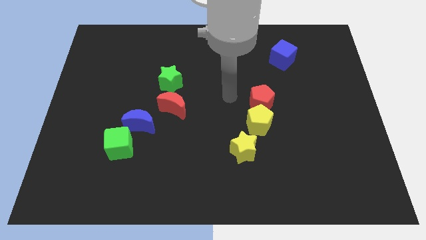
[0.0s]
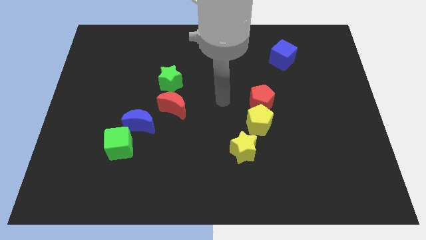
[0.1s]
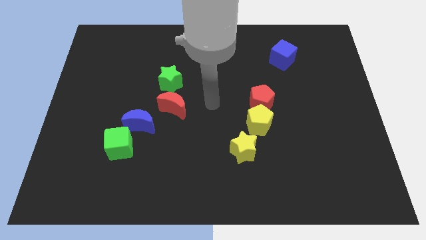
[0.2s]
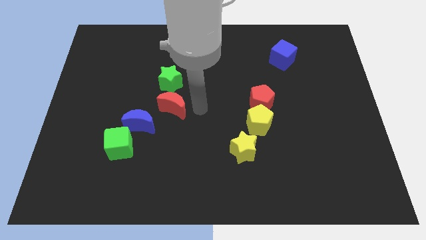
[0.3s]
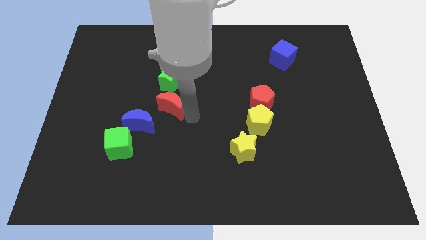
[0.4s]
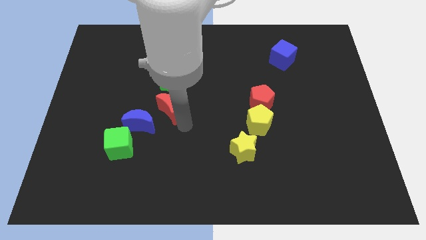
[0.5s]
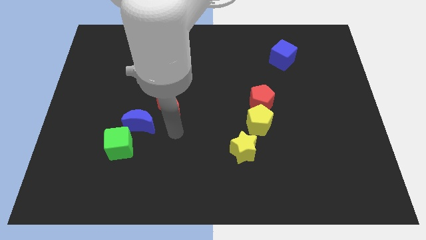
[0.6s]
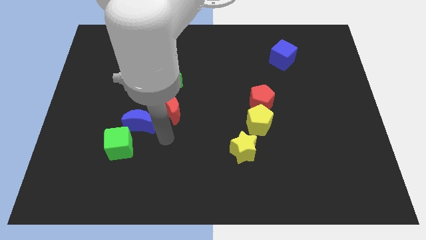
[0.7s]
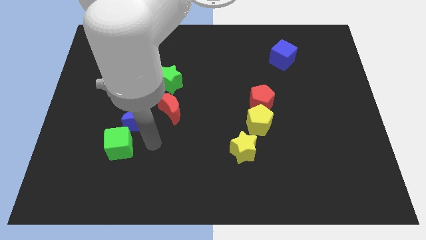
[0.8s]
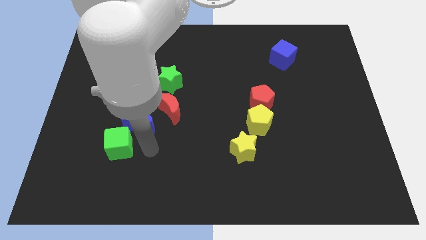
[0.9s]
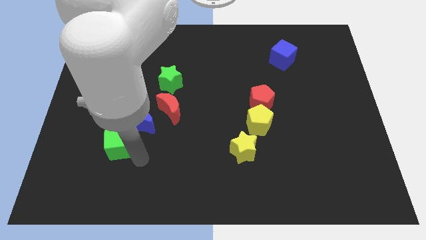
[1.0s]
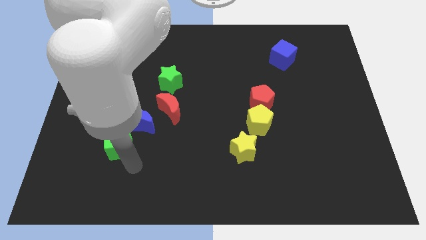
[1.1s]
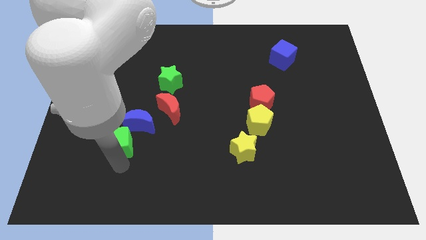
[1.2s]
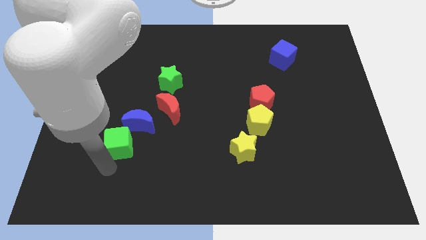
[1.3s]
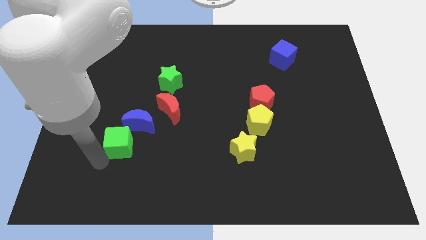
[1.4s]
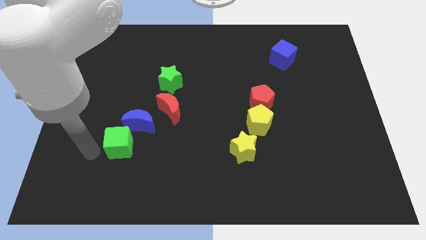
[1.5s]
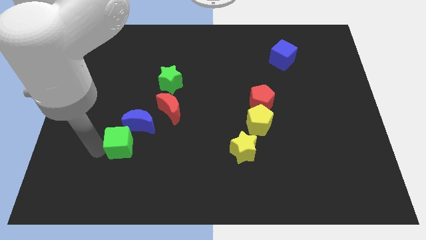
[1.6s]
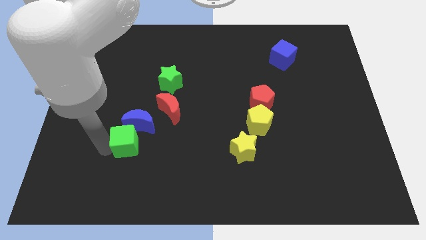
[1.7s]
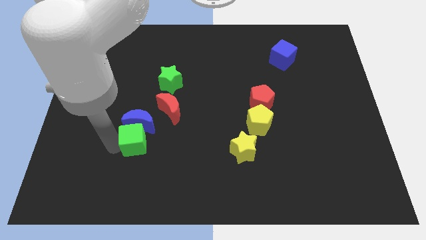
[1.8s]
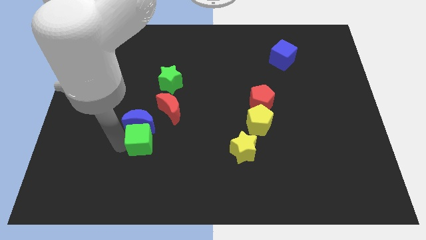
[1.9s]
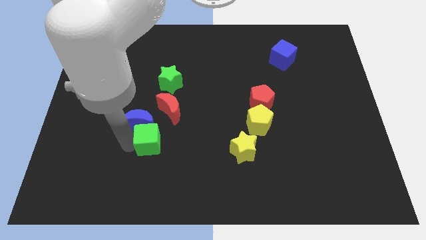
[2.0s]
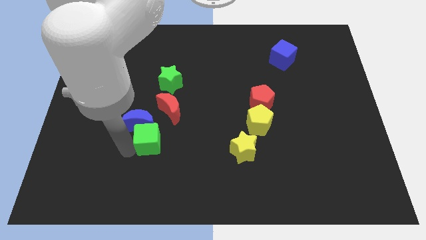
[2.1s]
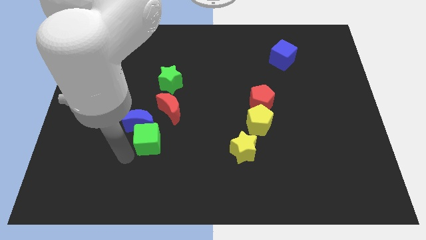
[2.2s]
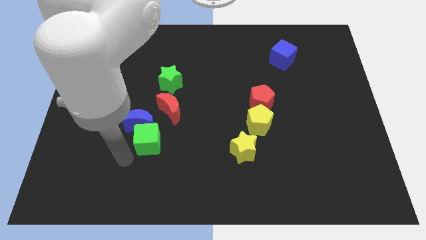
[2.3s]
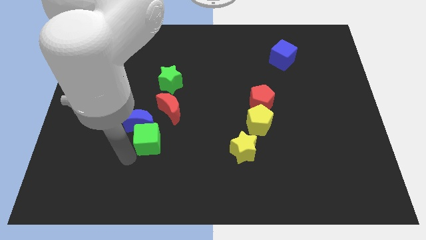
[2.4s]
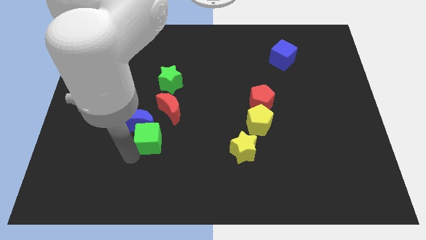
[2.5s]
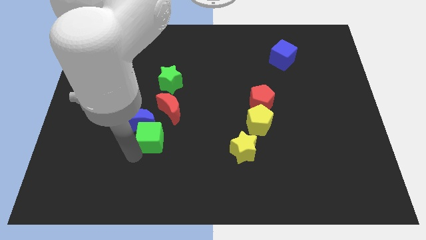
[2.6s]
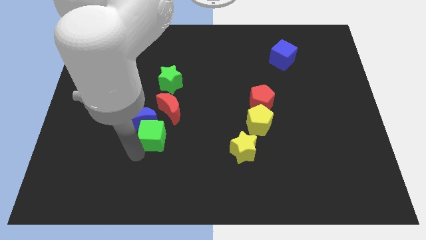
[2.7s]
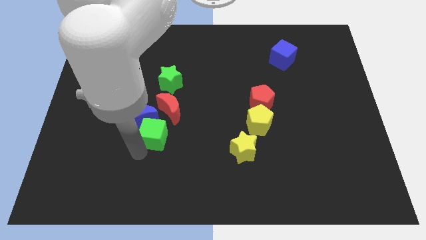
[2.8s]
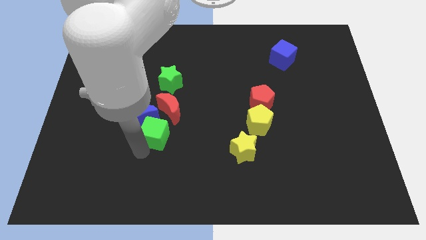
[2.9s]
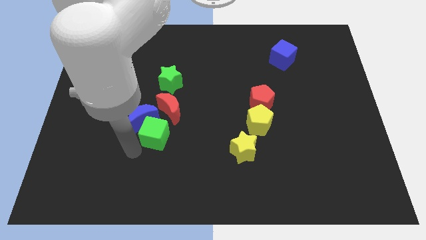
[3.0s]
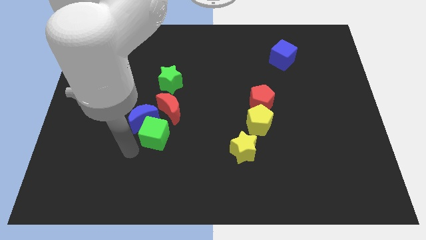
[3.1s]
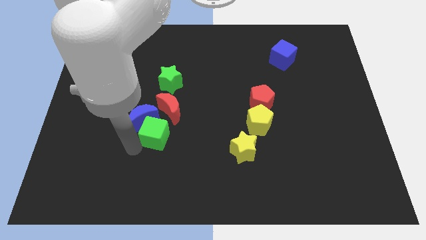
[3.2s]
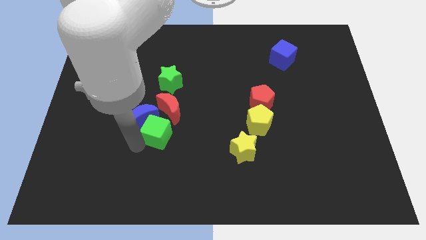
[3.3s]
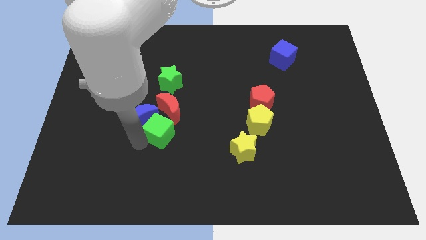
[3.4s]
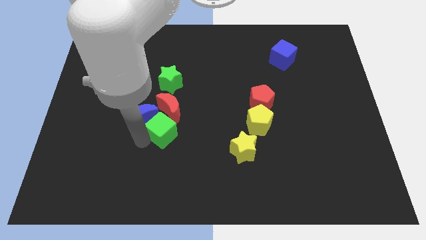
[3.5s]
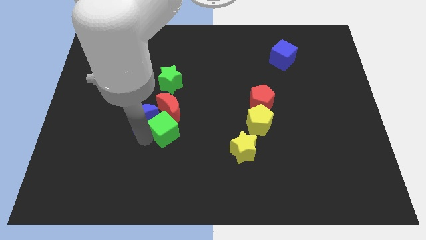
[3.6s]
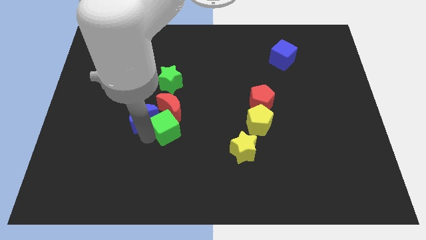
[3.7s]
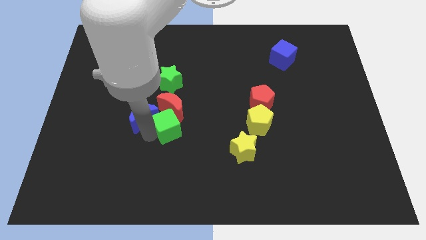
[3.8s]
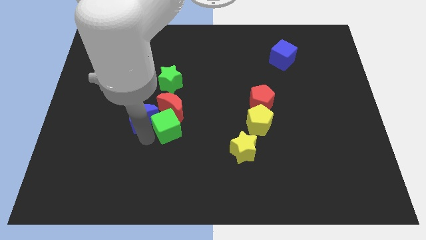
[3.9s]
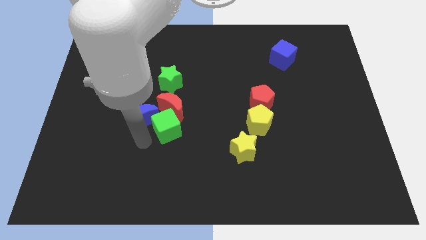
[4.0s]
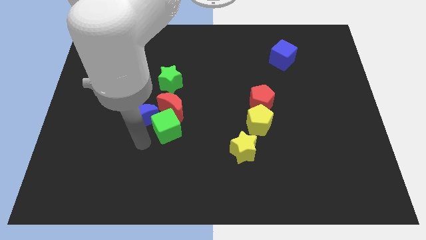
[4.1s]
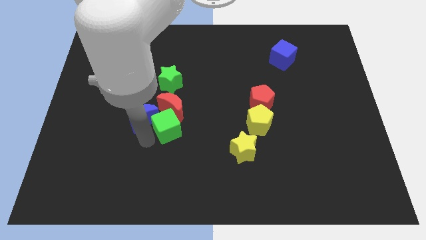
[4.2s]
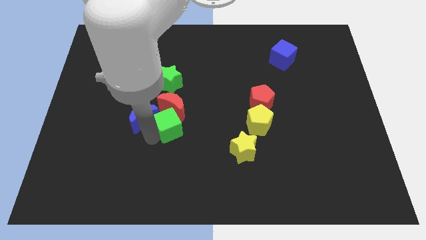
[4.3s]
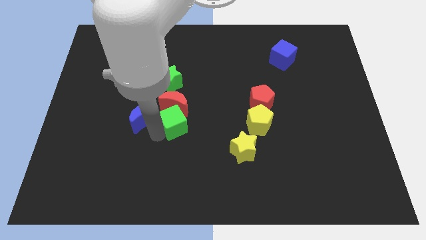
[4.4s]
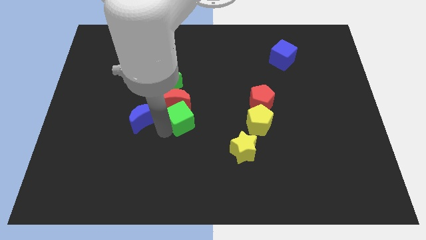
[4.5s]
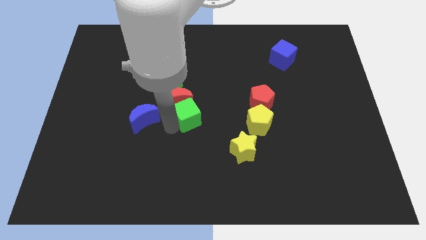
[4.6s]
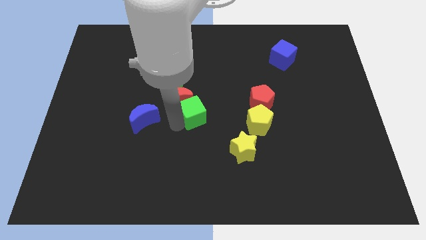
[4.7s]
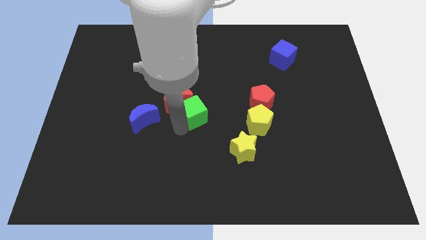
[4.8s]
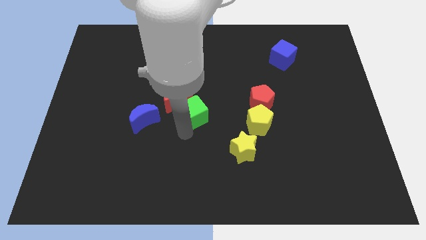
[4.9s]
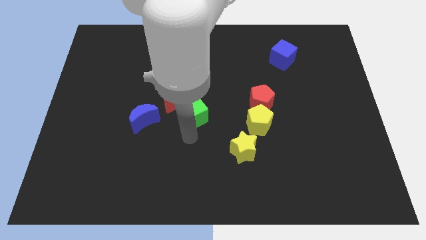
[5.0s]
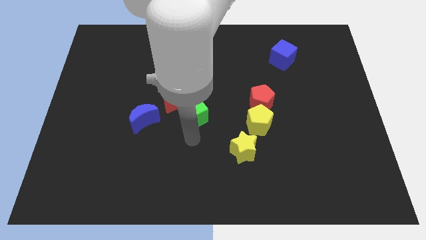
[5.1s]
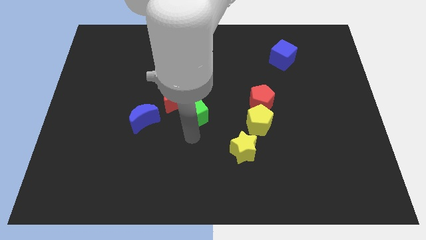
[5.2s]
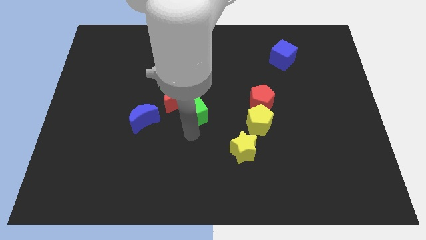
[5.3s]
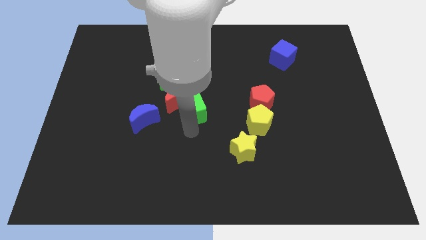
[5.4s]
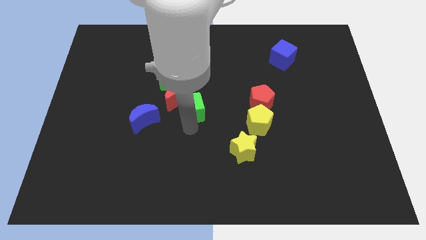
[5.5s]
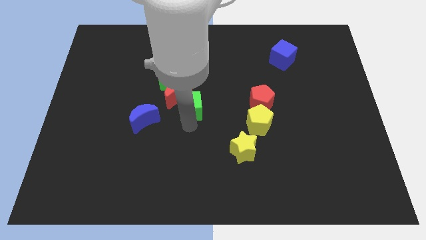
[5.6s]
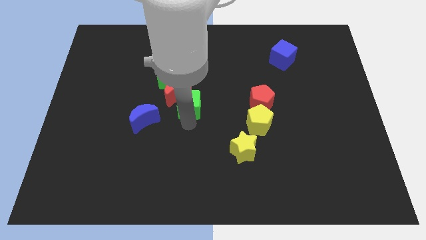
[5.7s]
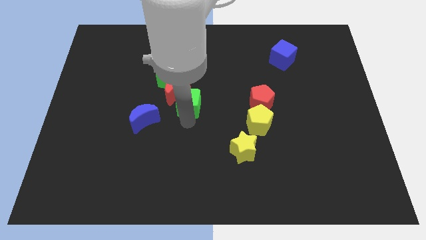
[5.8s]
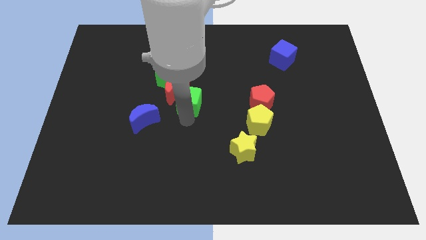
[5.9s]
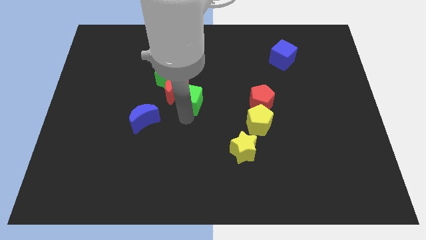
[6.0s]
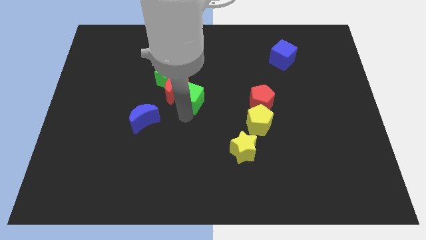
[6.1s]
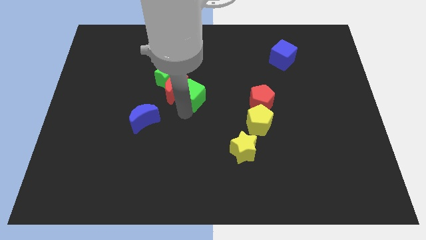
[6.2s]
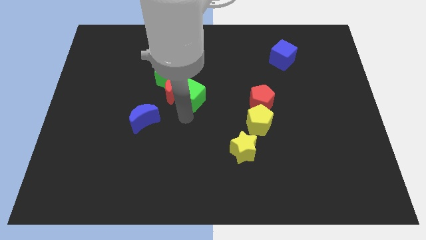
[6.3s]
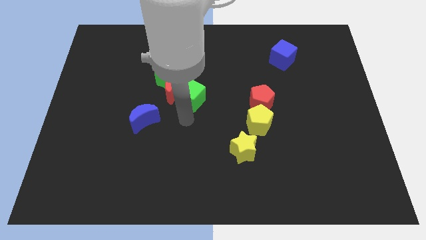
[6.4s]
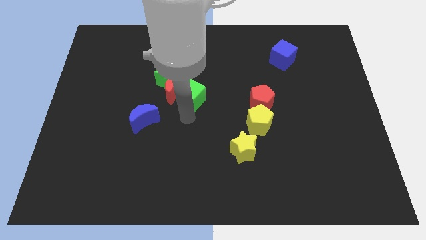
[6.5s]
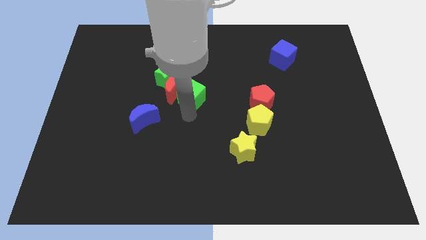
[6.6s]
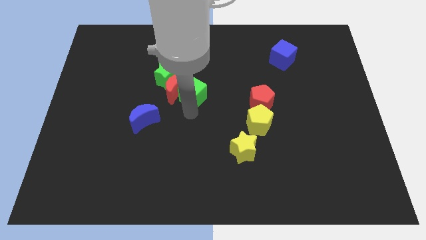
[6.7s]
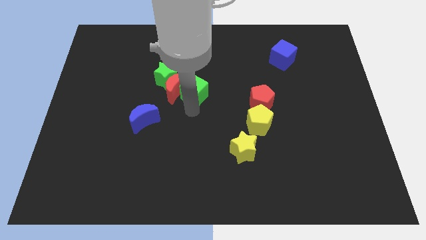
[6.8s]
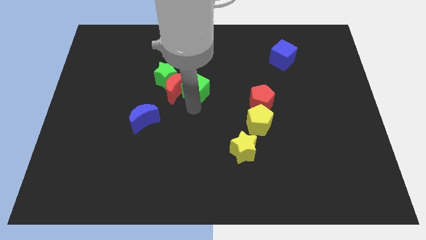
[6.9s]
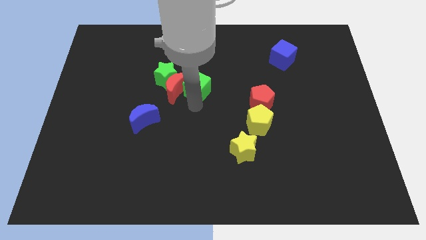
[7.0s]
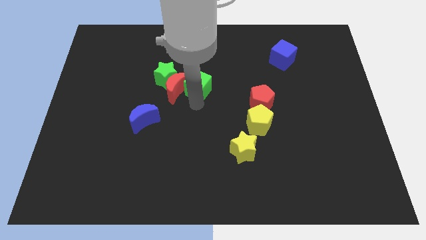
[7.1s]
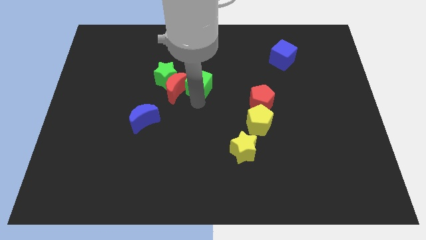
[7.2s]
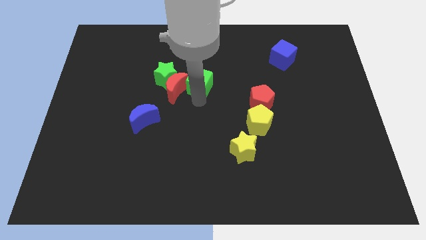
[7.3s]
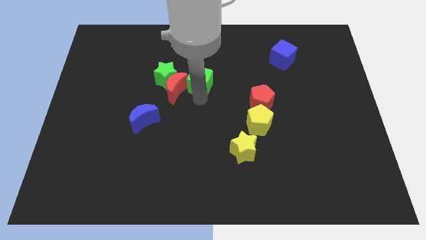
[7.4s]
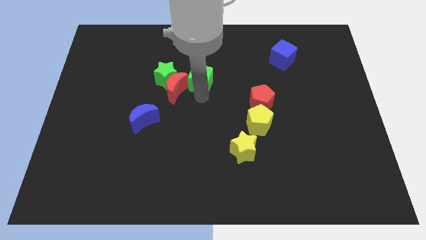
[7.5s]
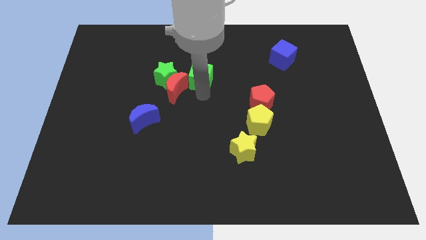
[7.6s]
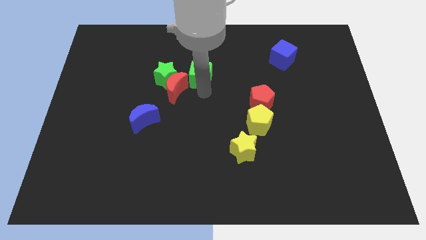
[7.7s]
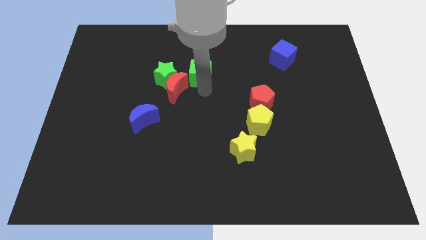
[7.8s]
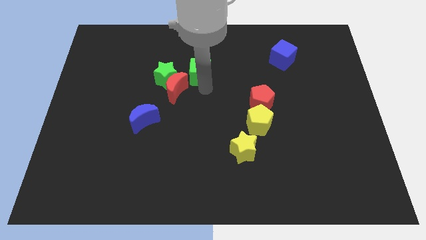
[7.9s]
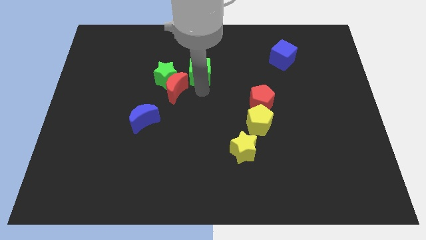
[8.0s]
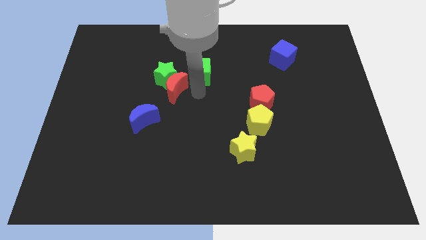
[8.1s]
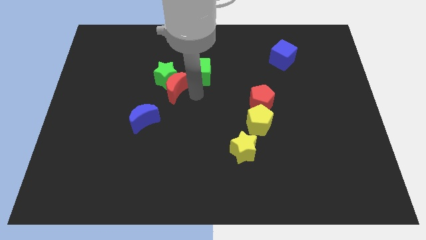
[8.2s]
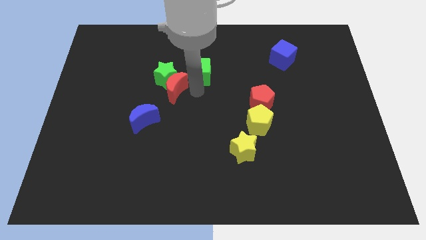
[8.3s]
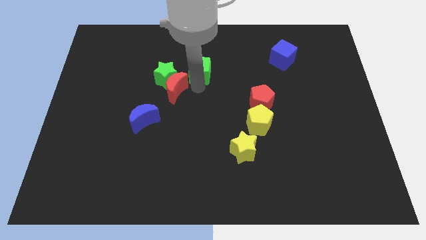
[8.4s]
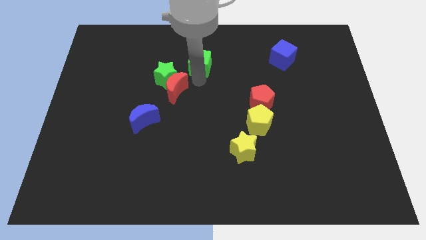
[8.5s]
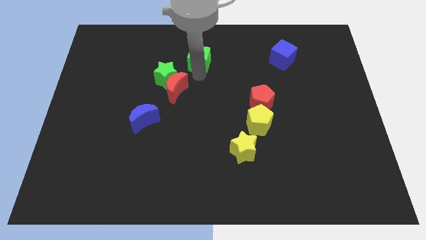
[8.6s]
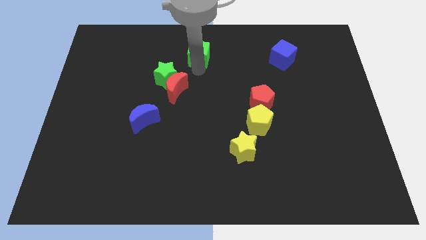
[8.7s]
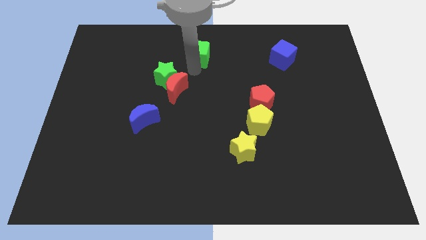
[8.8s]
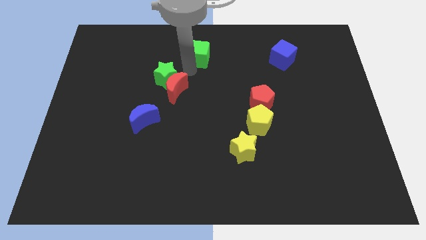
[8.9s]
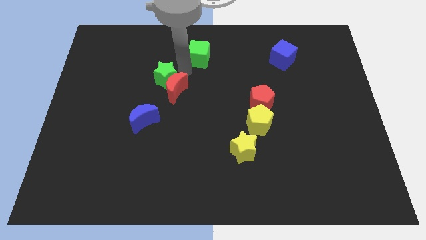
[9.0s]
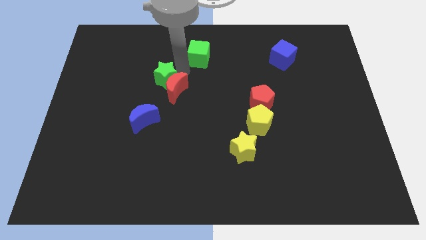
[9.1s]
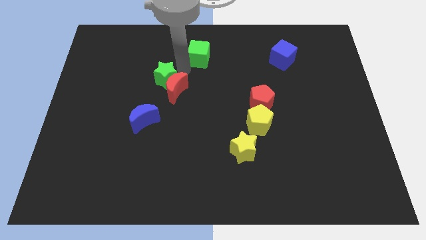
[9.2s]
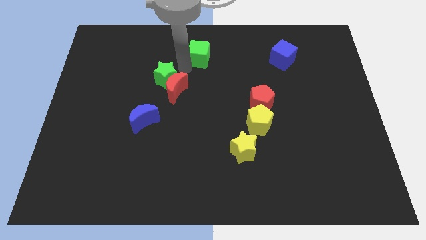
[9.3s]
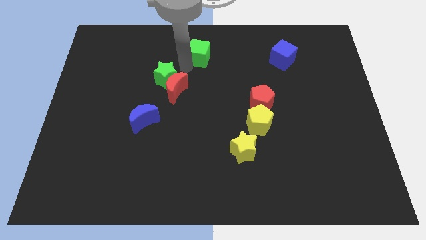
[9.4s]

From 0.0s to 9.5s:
move the green cube to the towards your base
